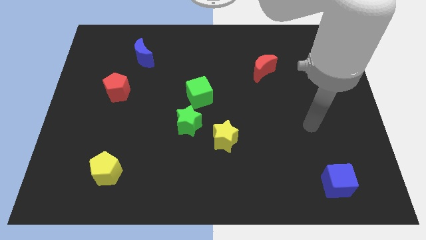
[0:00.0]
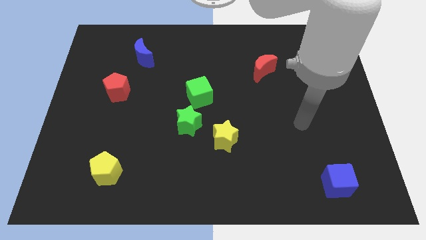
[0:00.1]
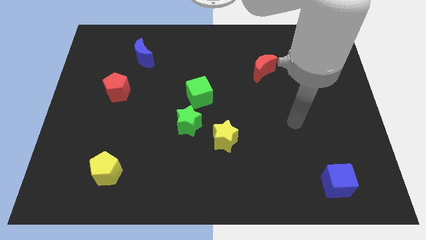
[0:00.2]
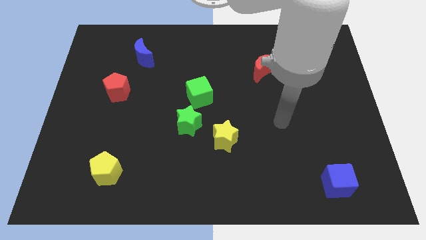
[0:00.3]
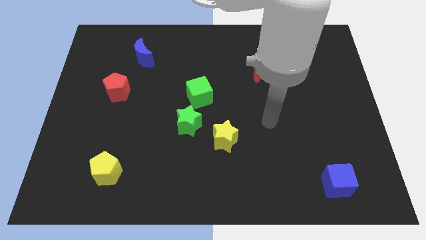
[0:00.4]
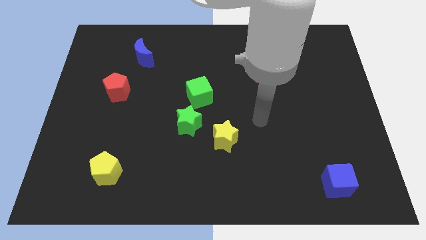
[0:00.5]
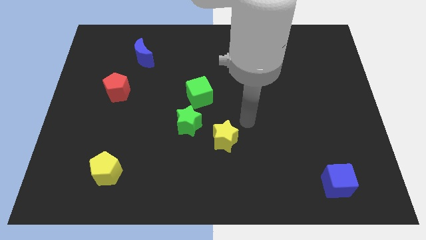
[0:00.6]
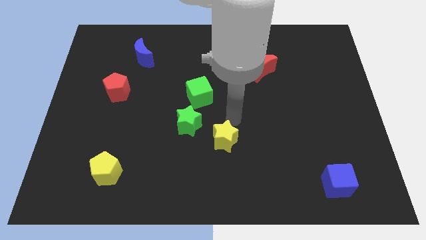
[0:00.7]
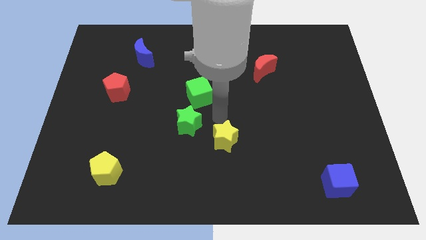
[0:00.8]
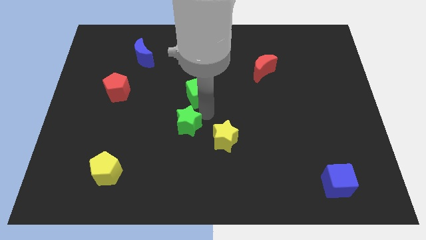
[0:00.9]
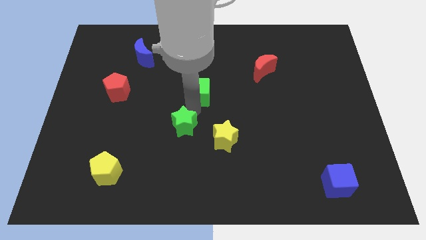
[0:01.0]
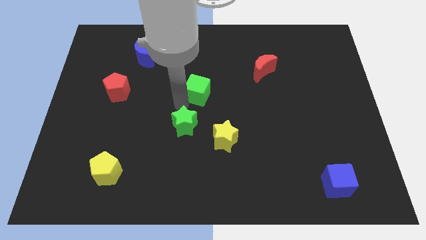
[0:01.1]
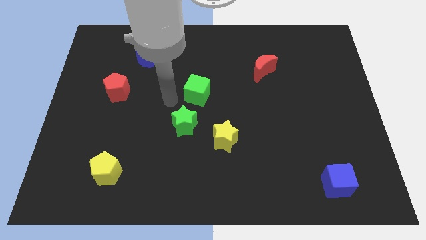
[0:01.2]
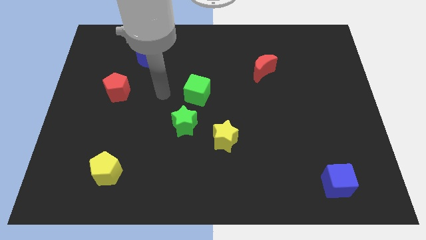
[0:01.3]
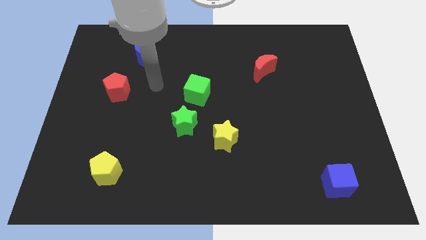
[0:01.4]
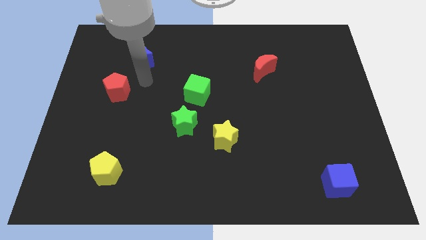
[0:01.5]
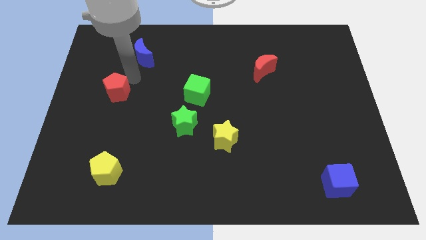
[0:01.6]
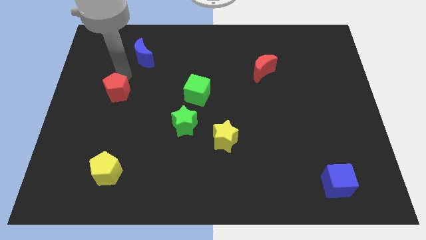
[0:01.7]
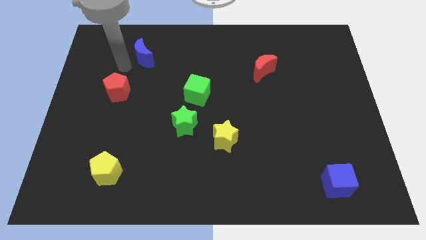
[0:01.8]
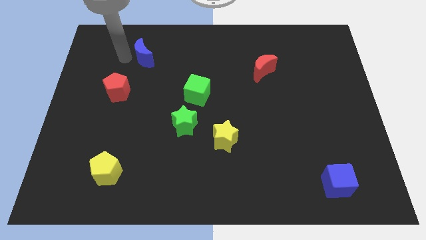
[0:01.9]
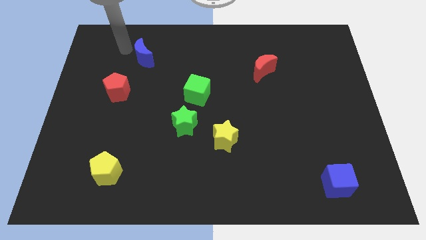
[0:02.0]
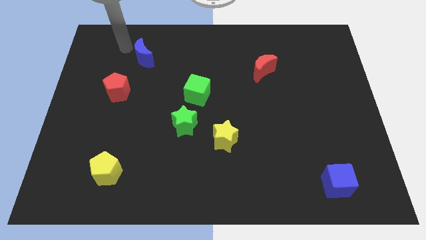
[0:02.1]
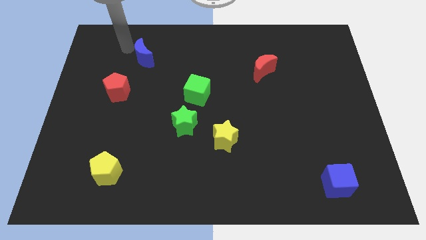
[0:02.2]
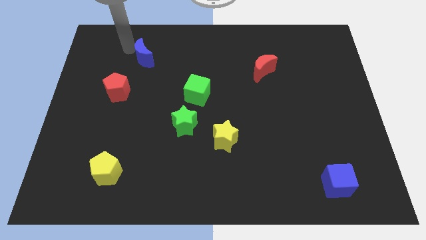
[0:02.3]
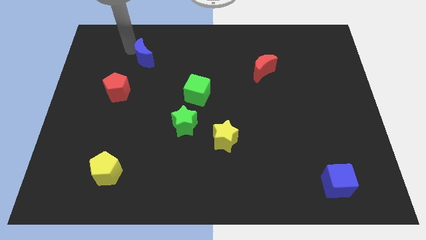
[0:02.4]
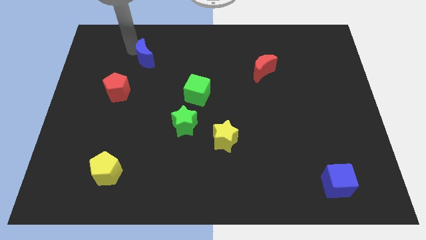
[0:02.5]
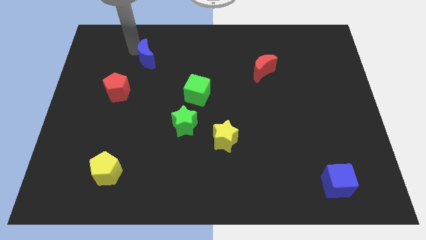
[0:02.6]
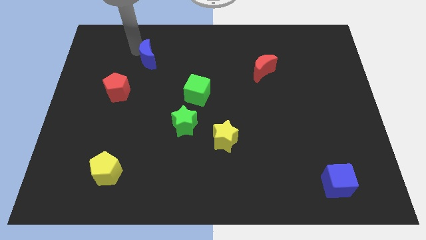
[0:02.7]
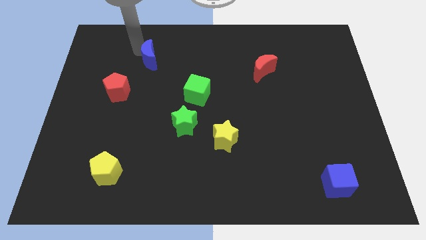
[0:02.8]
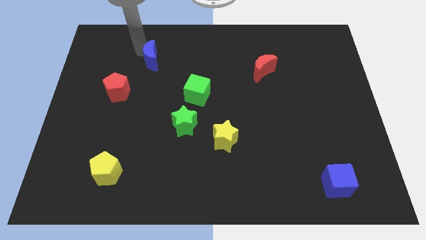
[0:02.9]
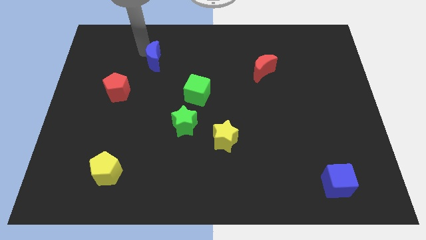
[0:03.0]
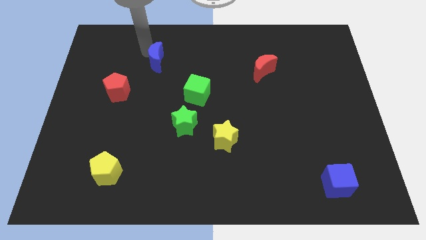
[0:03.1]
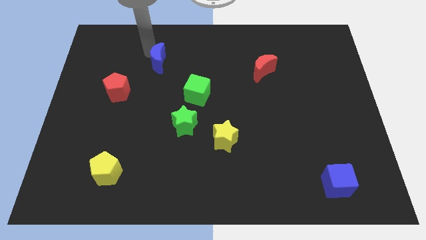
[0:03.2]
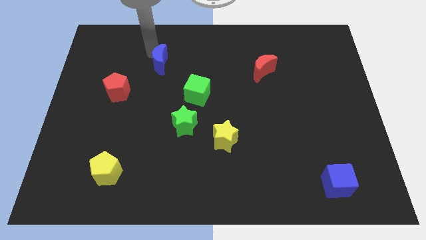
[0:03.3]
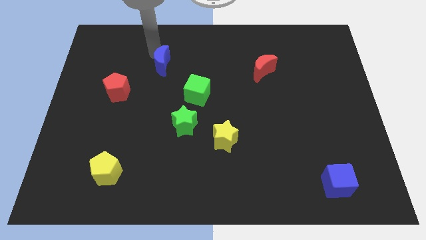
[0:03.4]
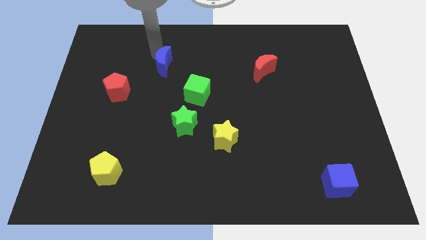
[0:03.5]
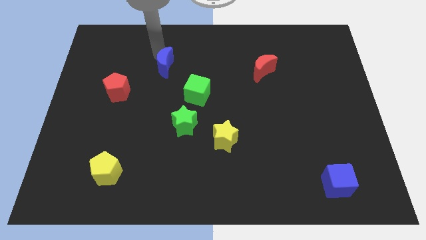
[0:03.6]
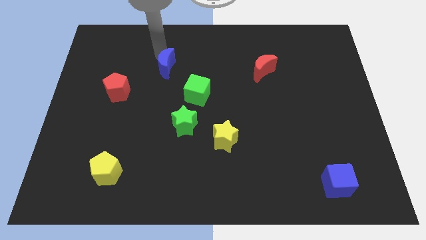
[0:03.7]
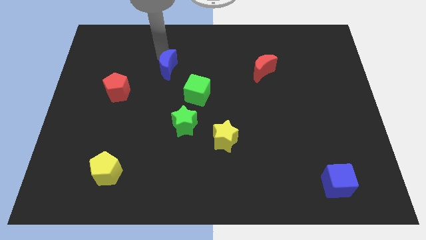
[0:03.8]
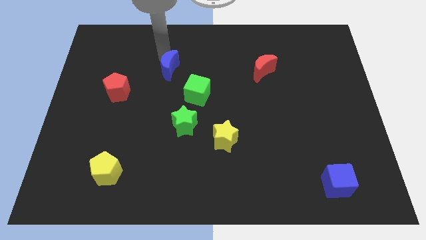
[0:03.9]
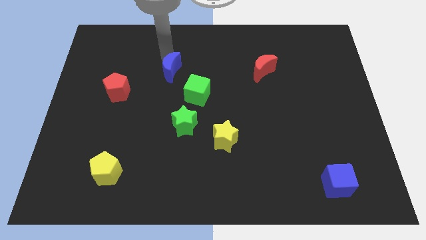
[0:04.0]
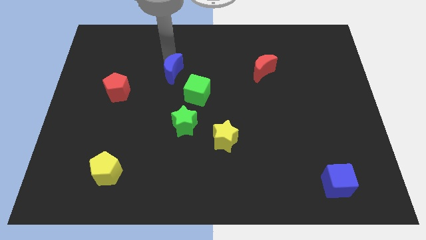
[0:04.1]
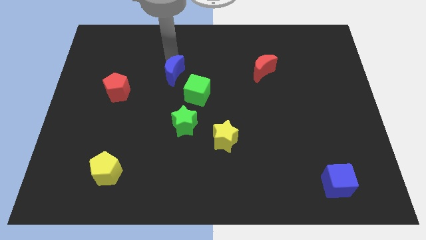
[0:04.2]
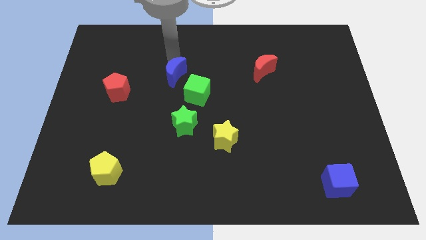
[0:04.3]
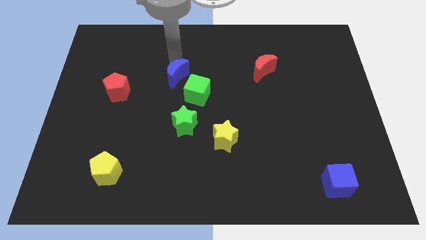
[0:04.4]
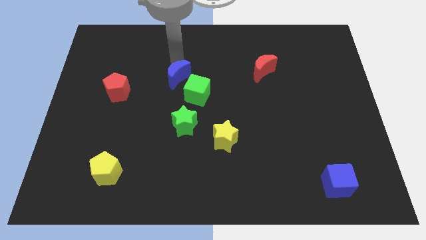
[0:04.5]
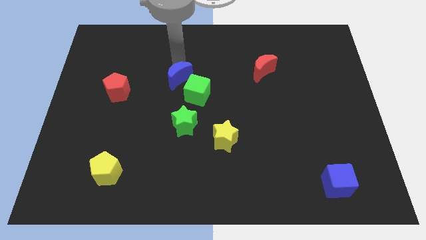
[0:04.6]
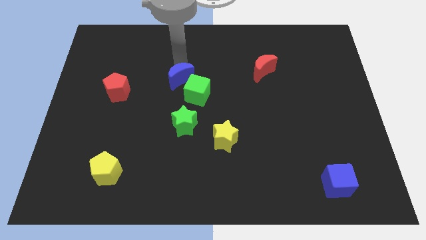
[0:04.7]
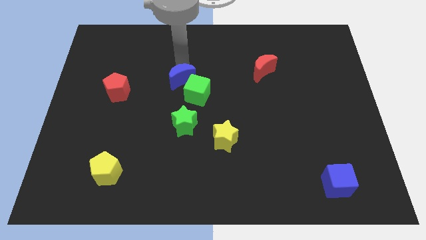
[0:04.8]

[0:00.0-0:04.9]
push the blue moon close to the green cube

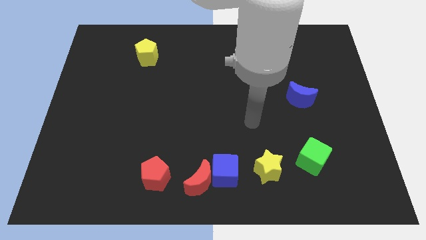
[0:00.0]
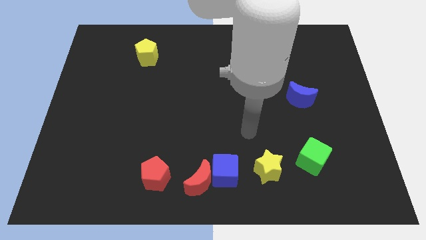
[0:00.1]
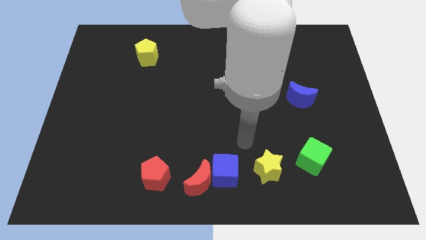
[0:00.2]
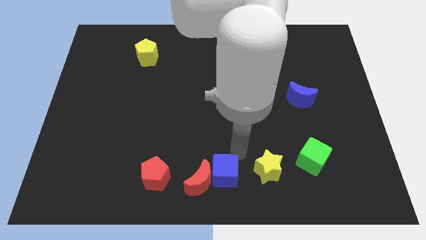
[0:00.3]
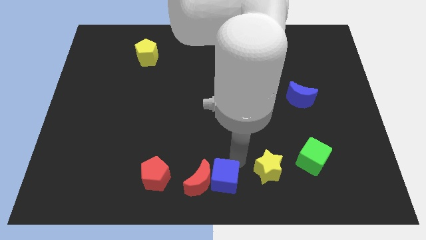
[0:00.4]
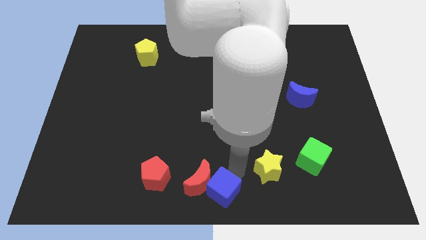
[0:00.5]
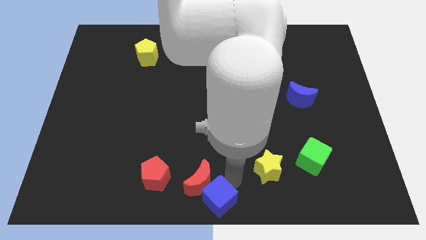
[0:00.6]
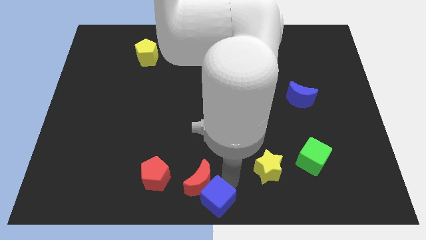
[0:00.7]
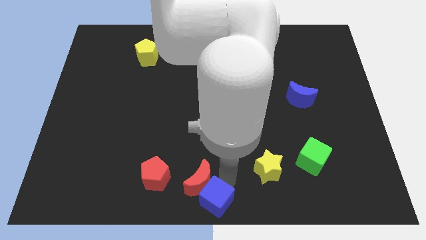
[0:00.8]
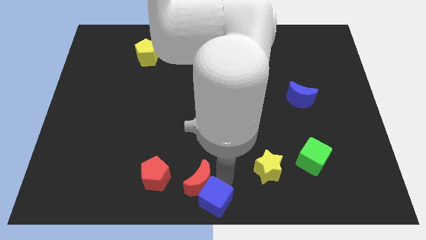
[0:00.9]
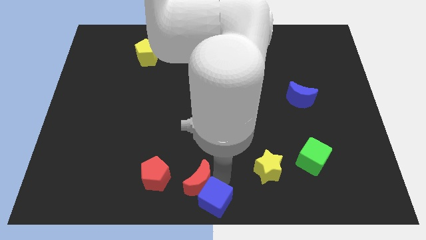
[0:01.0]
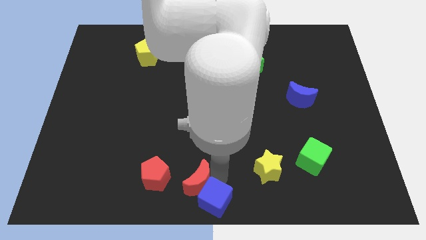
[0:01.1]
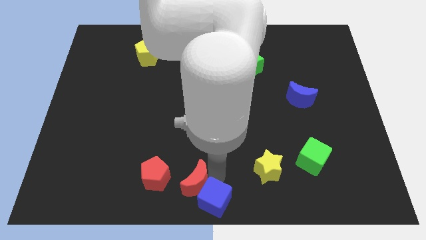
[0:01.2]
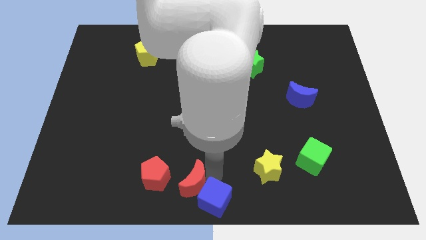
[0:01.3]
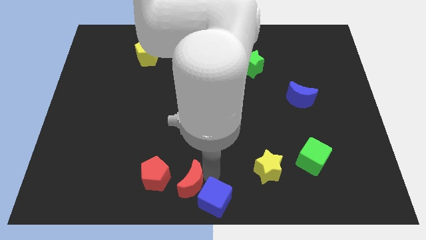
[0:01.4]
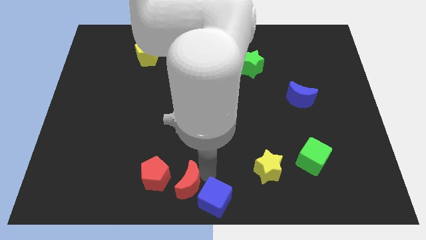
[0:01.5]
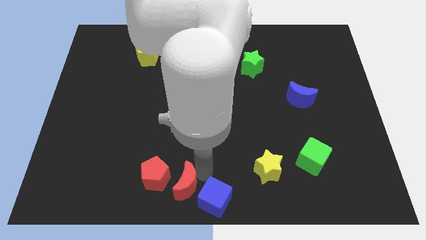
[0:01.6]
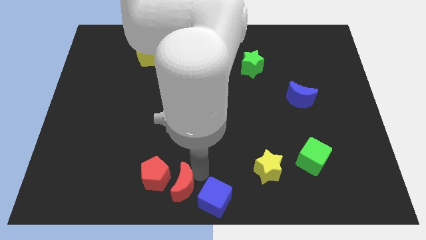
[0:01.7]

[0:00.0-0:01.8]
slide the red moon to the red pentagon

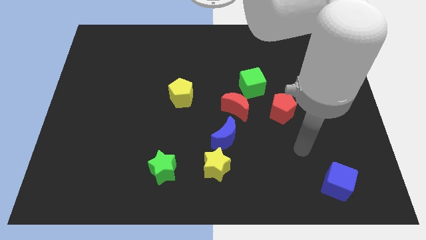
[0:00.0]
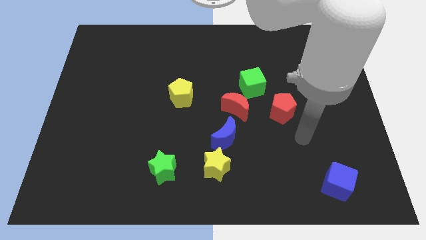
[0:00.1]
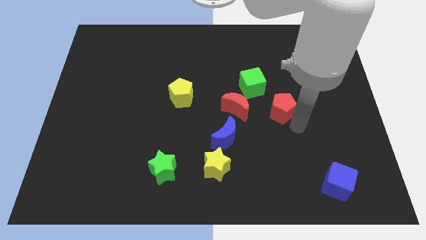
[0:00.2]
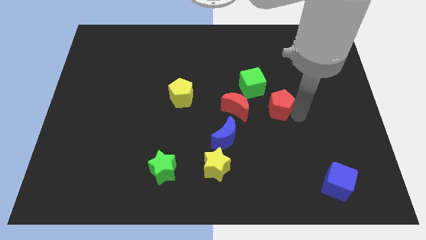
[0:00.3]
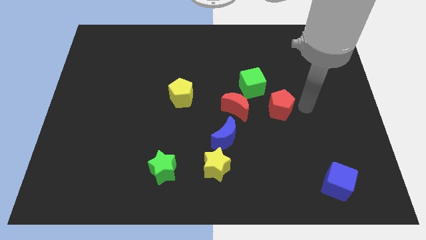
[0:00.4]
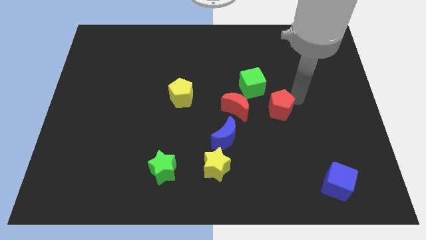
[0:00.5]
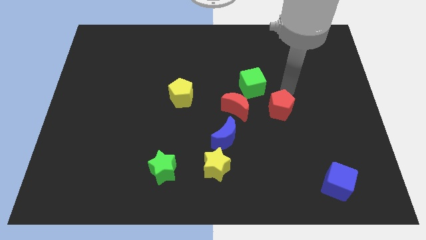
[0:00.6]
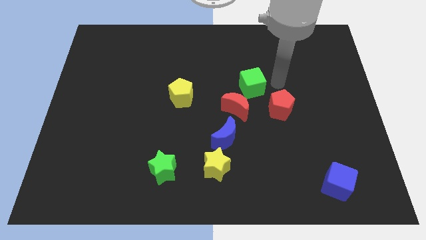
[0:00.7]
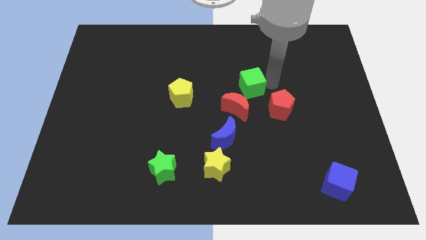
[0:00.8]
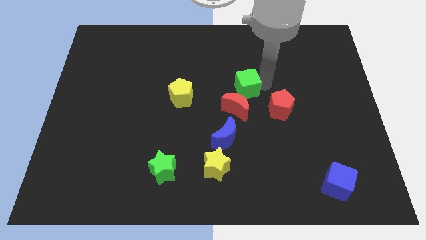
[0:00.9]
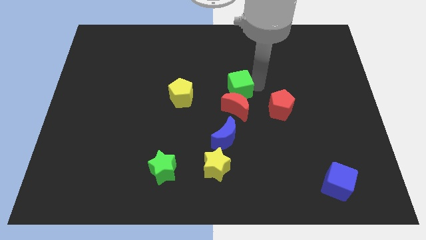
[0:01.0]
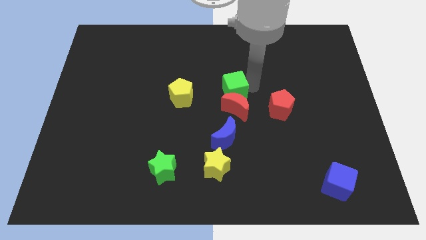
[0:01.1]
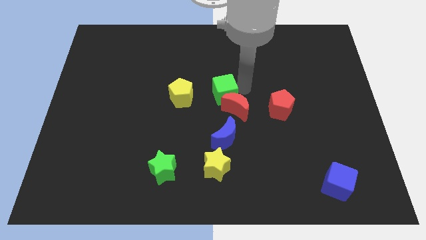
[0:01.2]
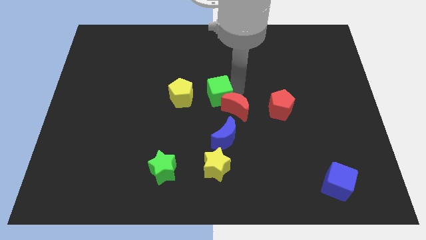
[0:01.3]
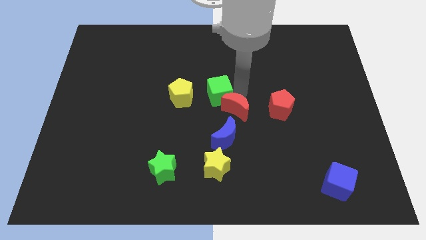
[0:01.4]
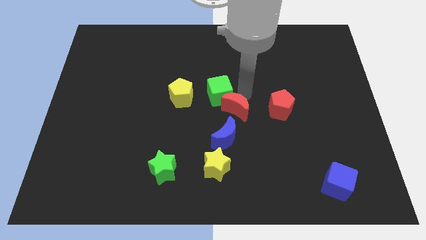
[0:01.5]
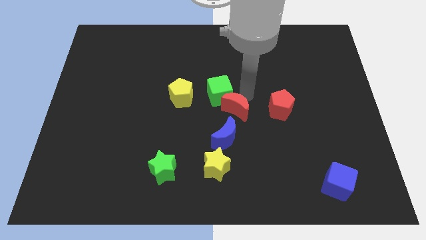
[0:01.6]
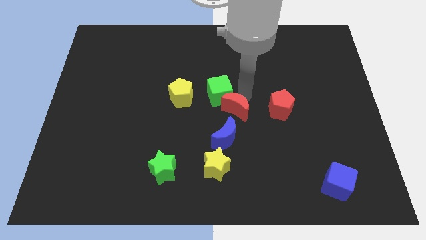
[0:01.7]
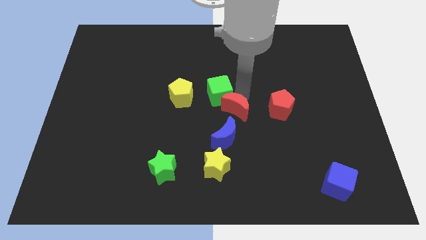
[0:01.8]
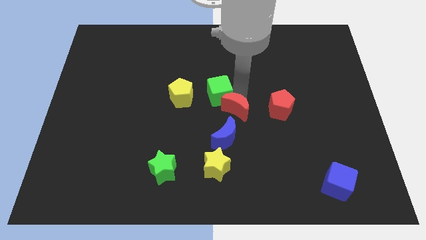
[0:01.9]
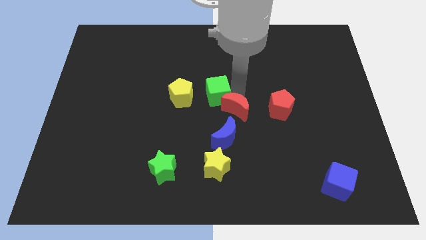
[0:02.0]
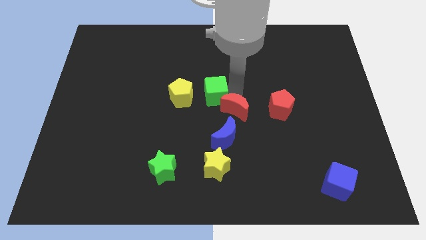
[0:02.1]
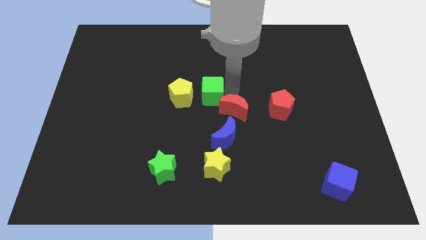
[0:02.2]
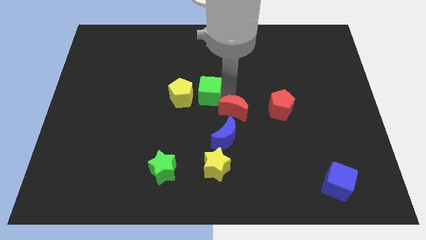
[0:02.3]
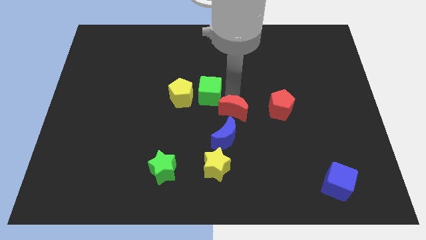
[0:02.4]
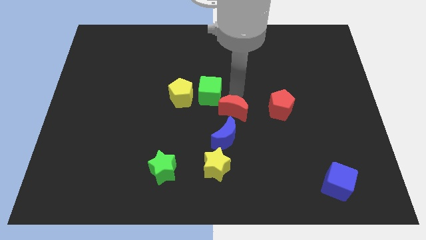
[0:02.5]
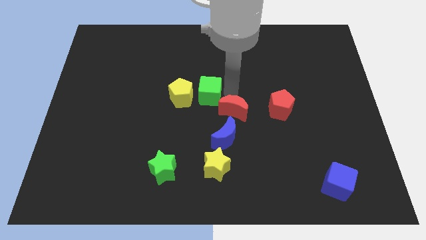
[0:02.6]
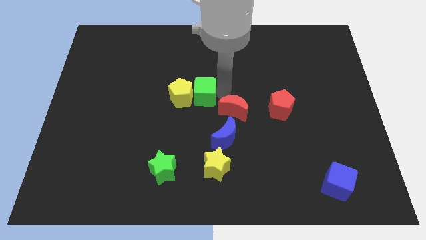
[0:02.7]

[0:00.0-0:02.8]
slide the green cube towards the yellow pentagon
